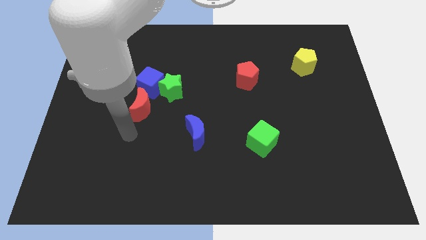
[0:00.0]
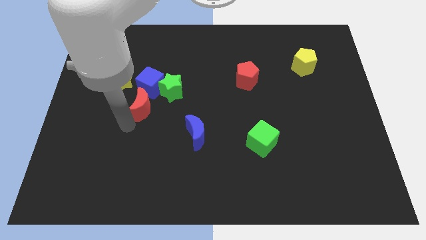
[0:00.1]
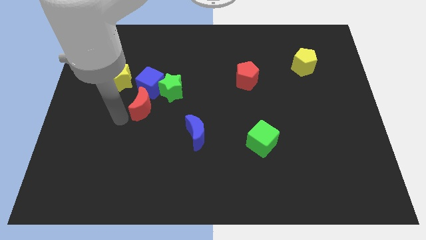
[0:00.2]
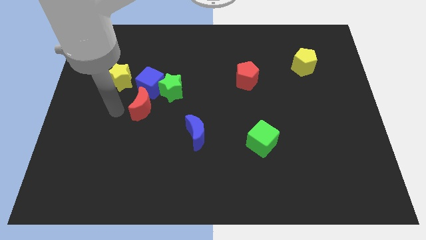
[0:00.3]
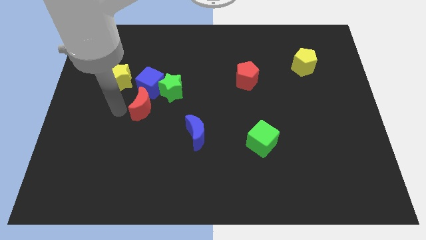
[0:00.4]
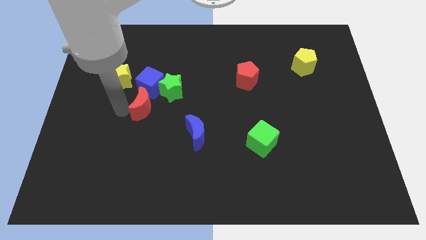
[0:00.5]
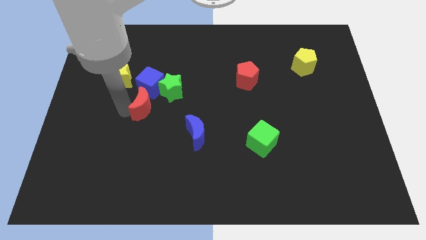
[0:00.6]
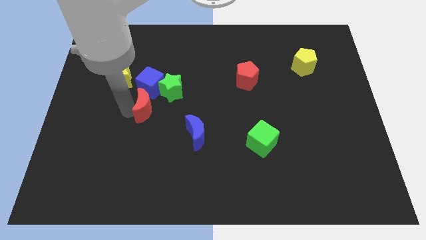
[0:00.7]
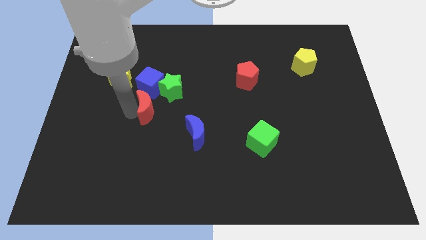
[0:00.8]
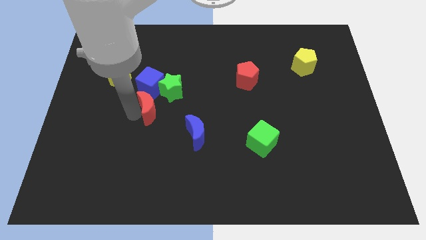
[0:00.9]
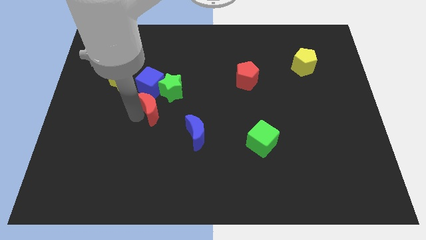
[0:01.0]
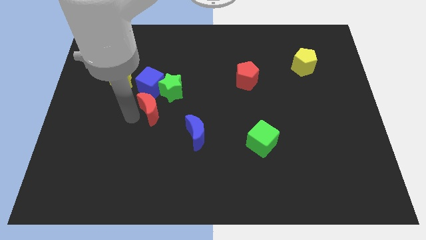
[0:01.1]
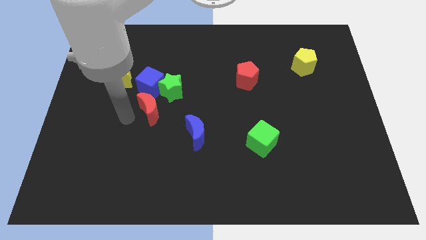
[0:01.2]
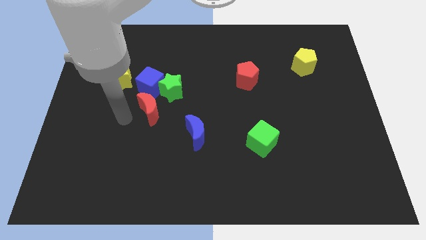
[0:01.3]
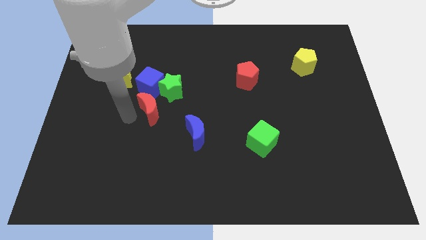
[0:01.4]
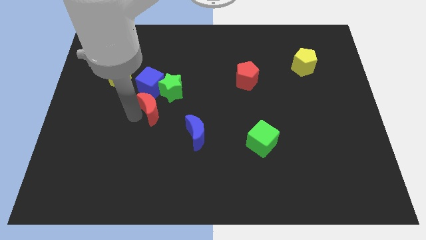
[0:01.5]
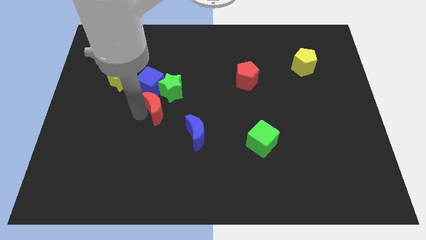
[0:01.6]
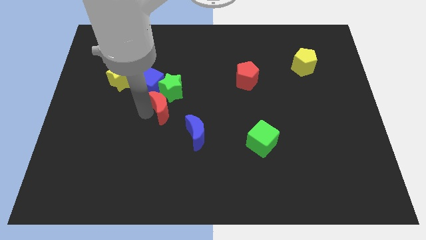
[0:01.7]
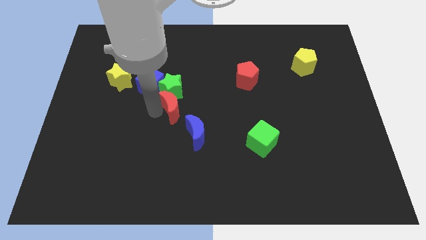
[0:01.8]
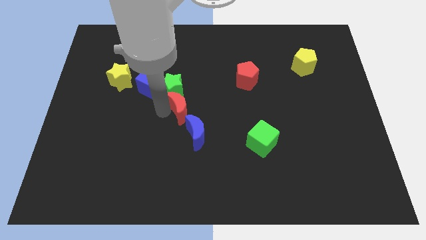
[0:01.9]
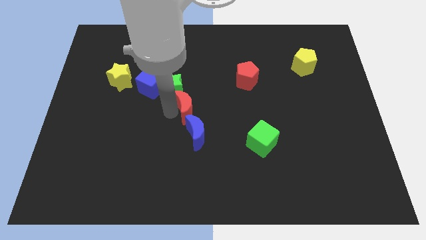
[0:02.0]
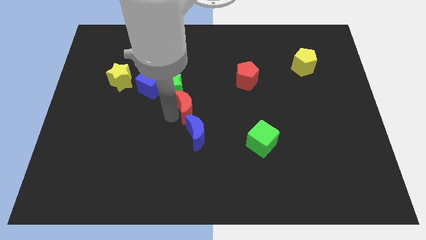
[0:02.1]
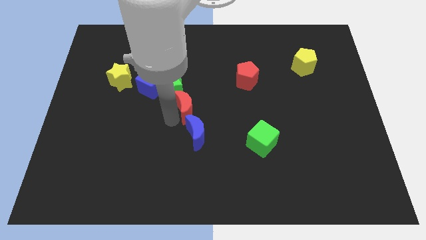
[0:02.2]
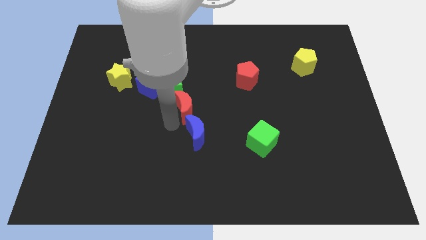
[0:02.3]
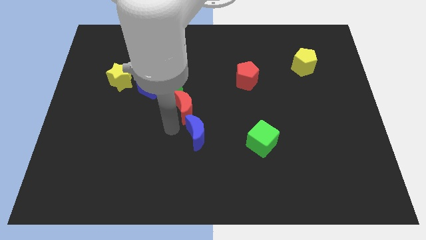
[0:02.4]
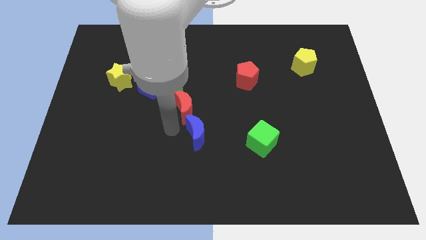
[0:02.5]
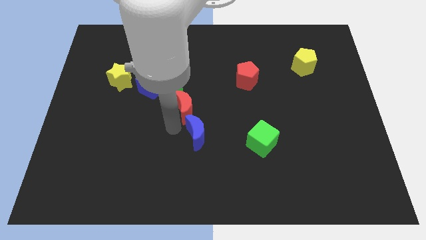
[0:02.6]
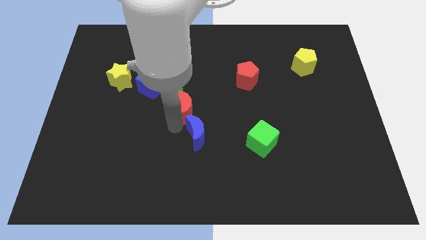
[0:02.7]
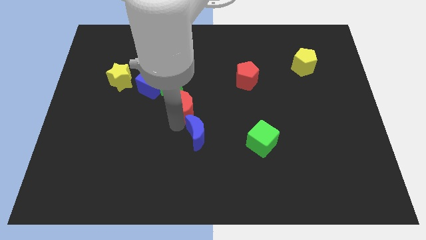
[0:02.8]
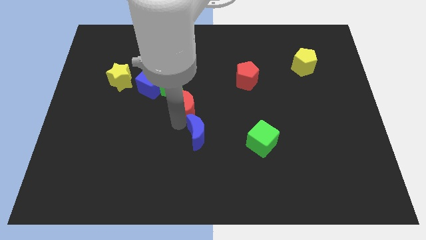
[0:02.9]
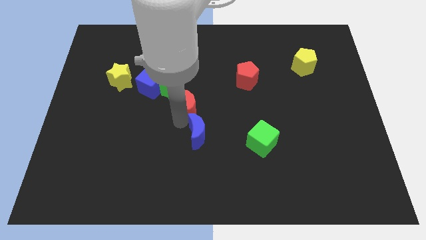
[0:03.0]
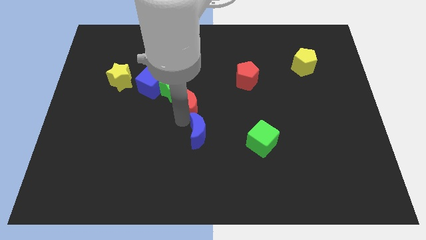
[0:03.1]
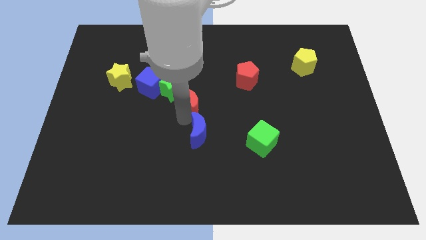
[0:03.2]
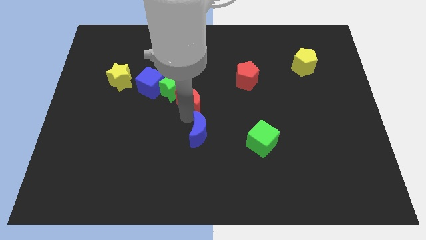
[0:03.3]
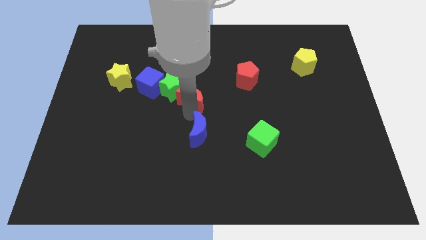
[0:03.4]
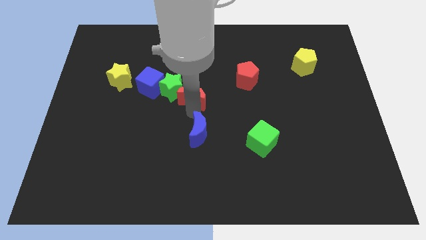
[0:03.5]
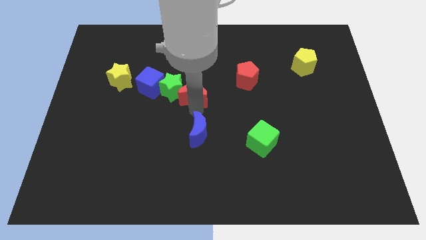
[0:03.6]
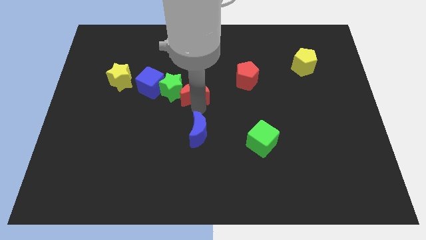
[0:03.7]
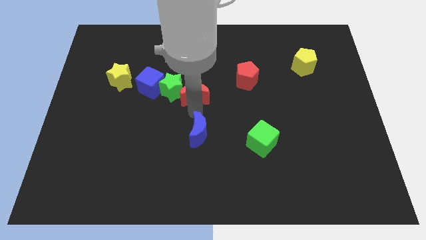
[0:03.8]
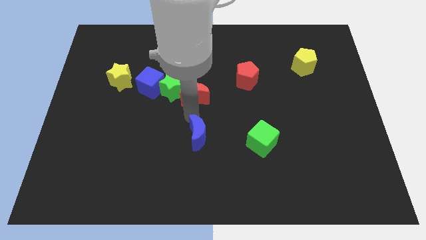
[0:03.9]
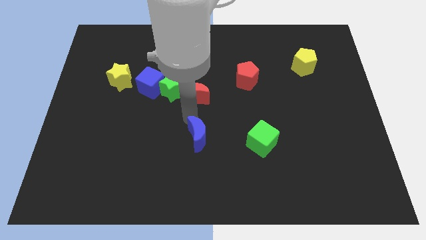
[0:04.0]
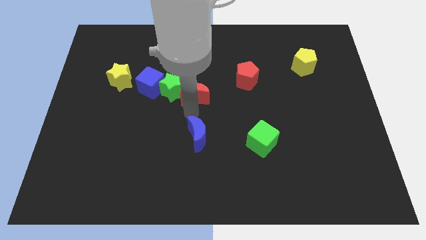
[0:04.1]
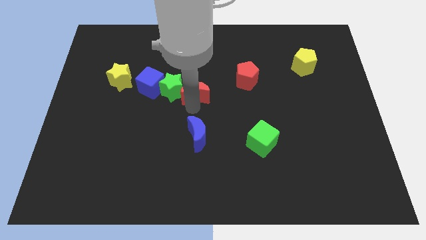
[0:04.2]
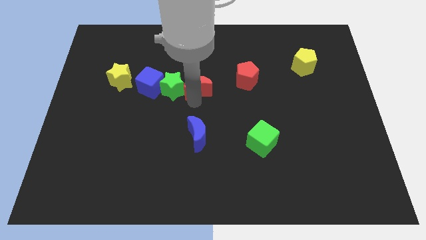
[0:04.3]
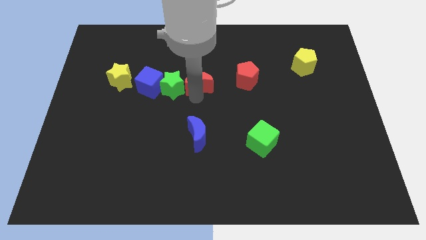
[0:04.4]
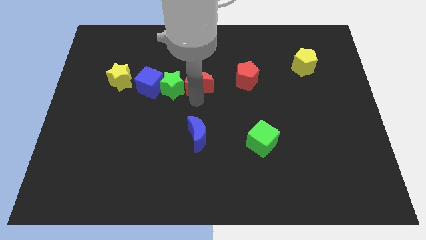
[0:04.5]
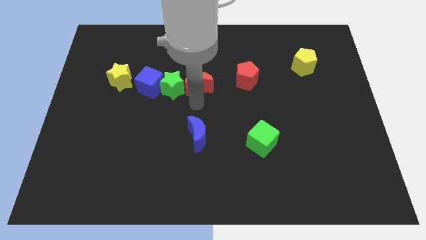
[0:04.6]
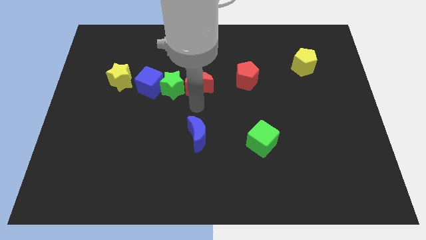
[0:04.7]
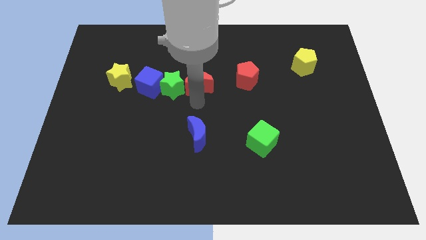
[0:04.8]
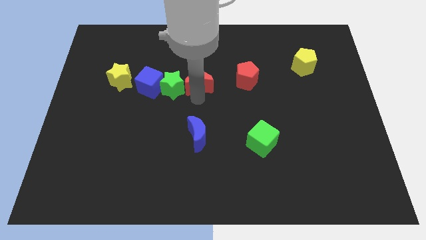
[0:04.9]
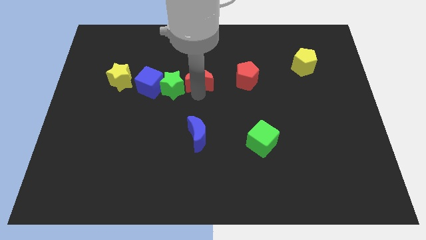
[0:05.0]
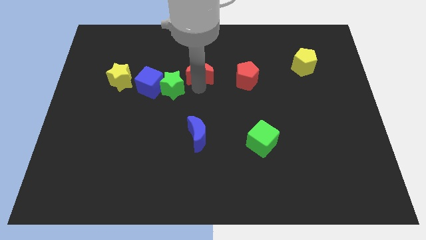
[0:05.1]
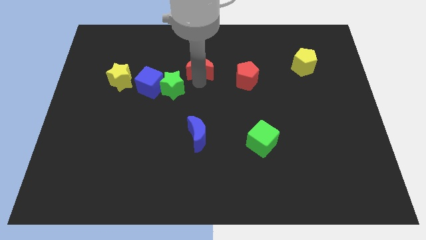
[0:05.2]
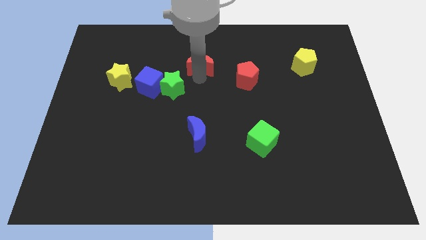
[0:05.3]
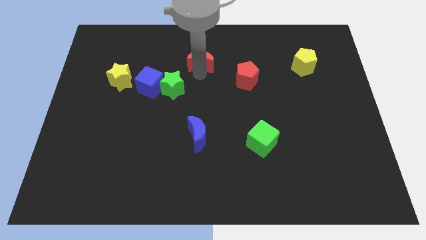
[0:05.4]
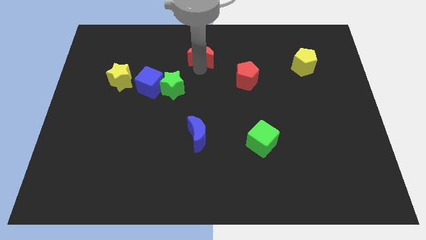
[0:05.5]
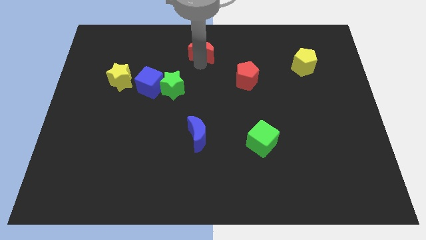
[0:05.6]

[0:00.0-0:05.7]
slide the red moon to the top side

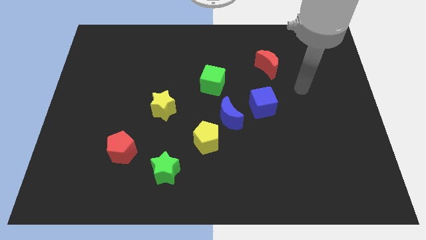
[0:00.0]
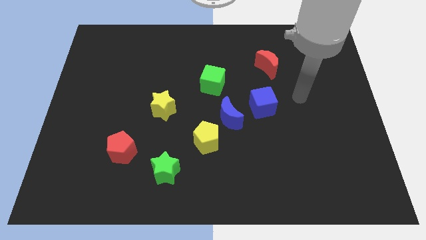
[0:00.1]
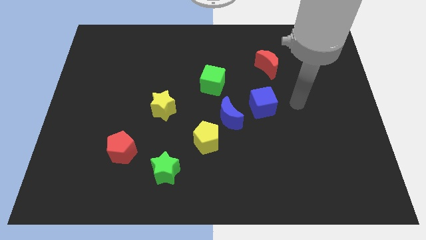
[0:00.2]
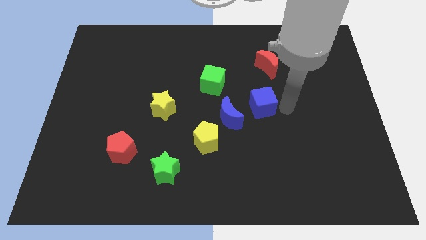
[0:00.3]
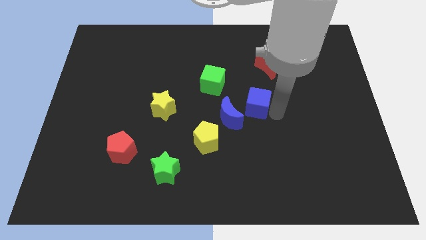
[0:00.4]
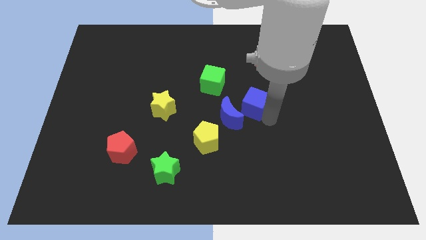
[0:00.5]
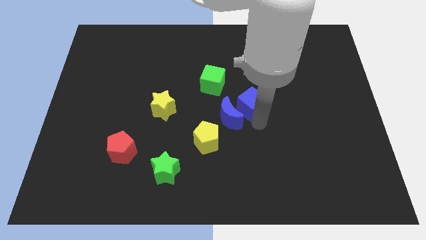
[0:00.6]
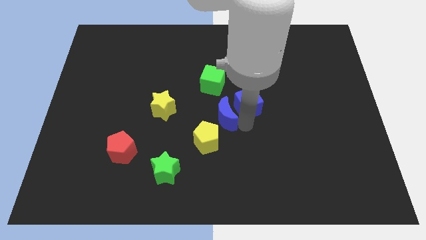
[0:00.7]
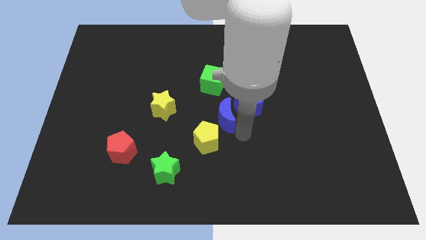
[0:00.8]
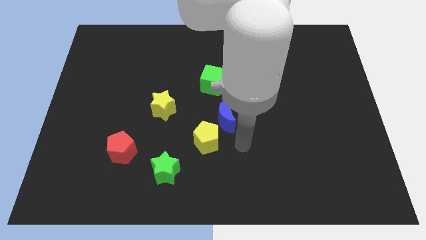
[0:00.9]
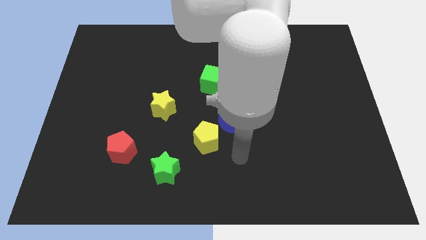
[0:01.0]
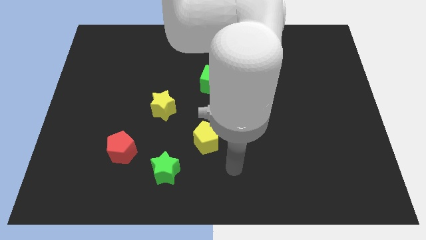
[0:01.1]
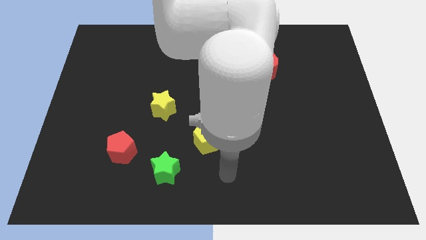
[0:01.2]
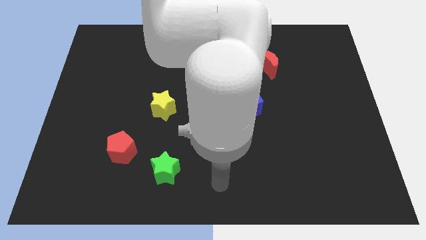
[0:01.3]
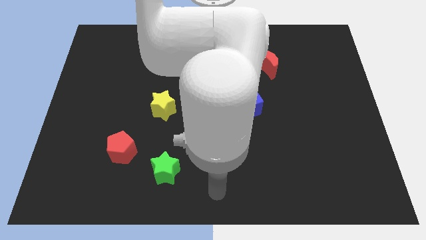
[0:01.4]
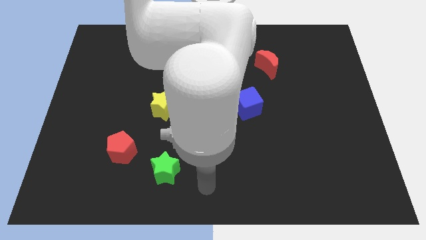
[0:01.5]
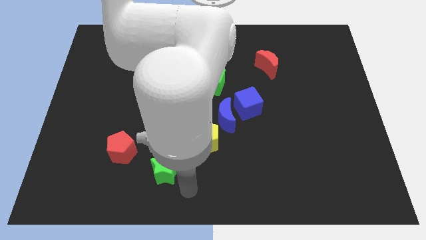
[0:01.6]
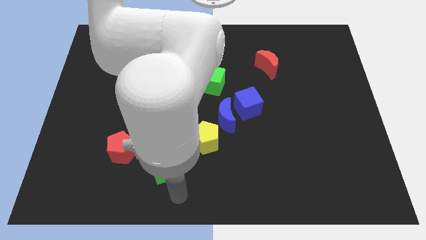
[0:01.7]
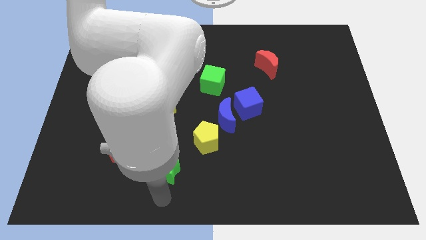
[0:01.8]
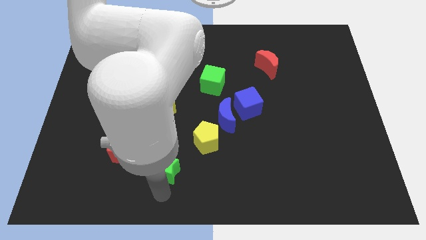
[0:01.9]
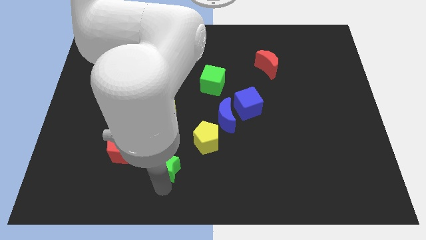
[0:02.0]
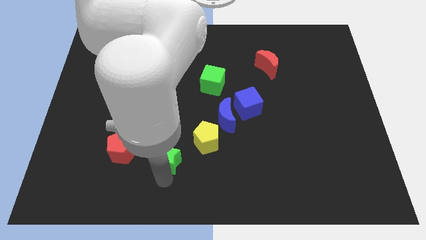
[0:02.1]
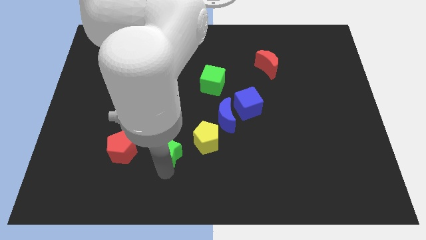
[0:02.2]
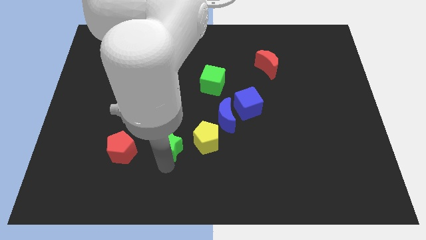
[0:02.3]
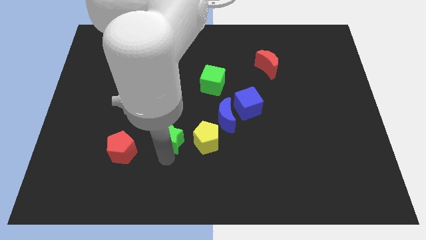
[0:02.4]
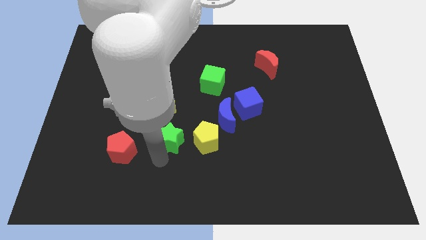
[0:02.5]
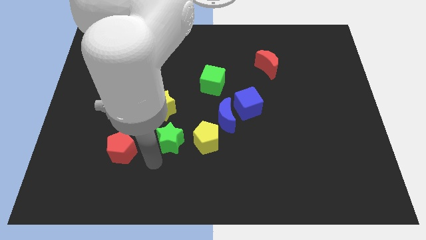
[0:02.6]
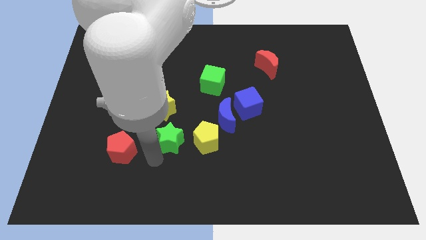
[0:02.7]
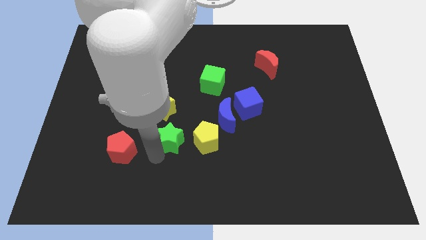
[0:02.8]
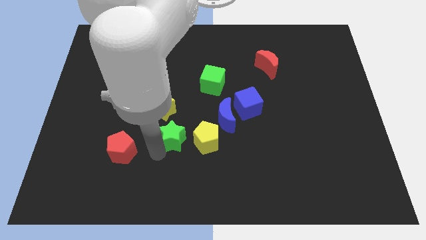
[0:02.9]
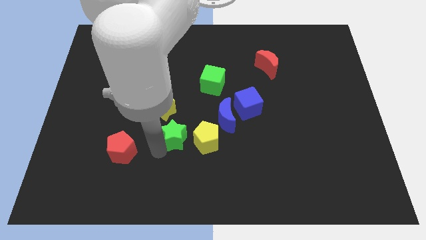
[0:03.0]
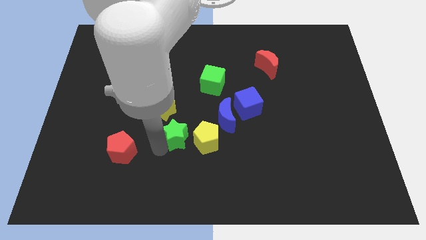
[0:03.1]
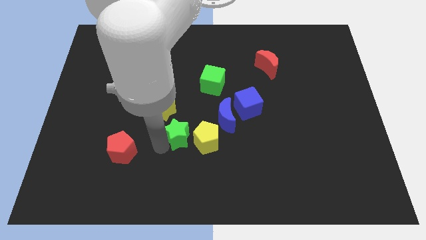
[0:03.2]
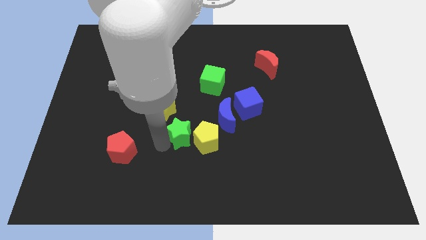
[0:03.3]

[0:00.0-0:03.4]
push the green star to the center of the board
